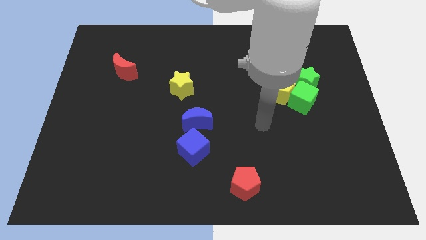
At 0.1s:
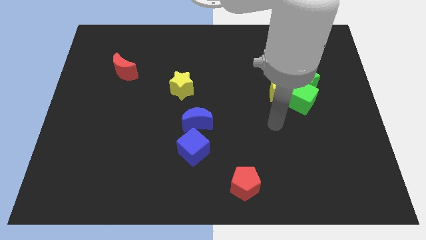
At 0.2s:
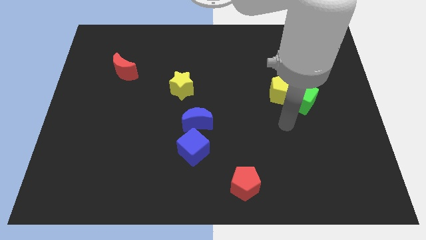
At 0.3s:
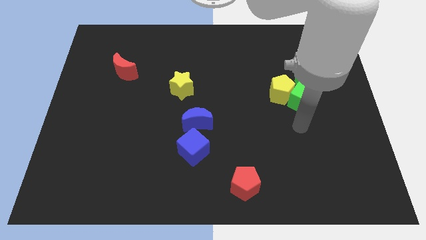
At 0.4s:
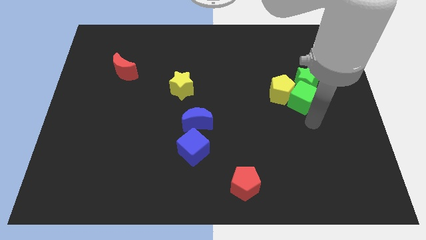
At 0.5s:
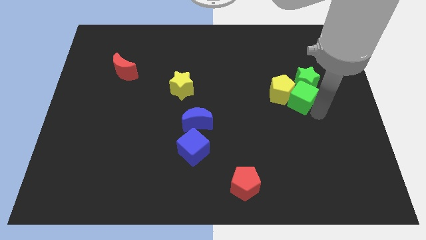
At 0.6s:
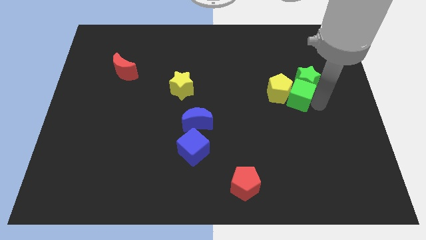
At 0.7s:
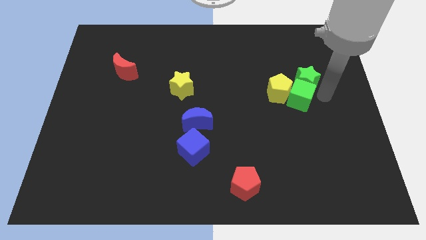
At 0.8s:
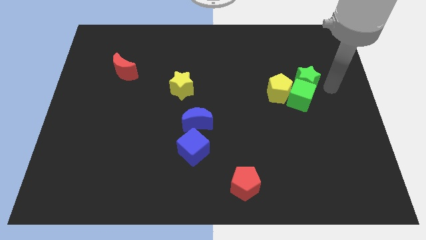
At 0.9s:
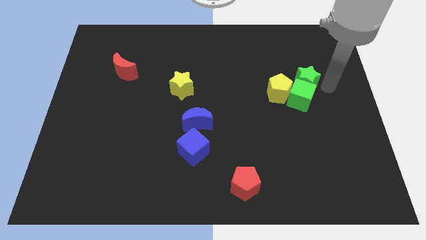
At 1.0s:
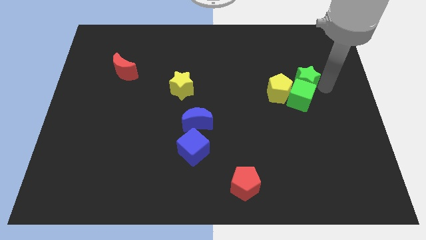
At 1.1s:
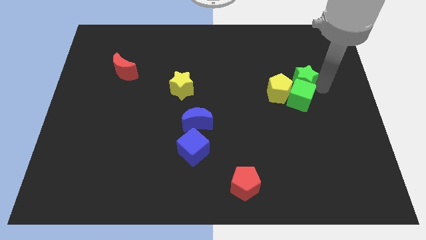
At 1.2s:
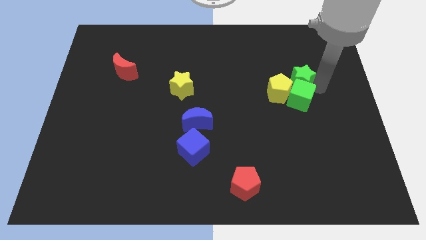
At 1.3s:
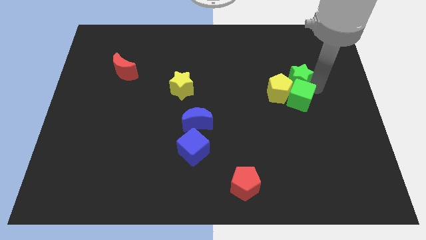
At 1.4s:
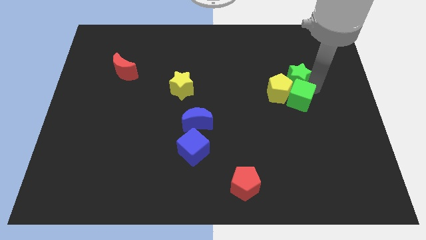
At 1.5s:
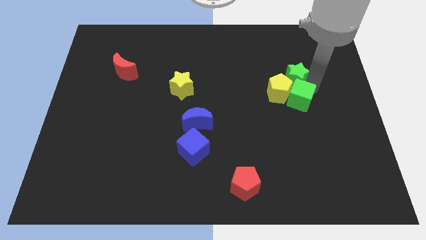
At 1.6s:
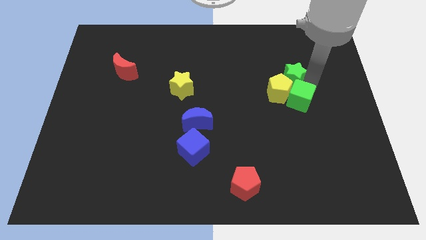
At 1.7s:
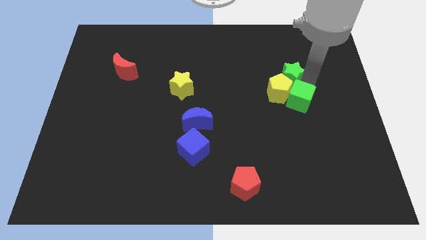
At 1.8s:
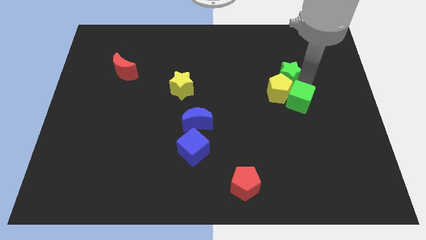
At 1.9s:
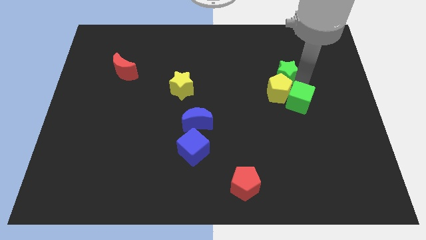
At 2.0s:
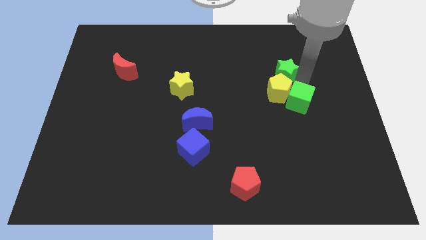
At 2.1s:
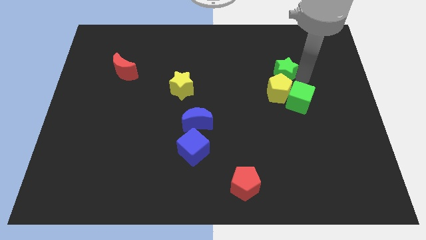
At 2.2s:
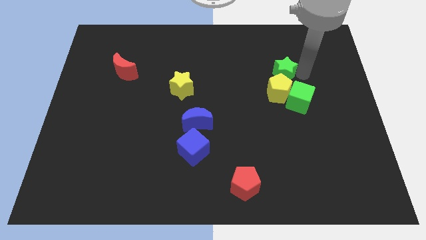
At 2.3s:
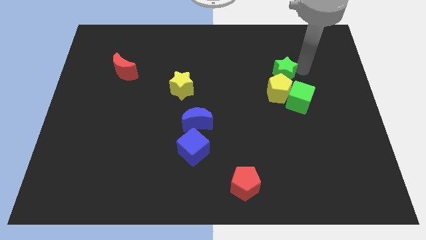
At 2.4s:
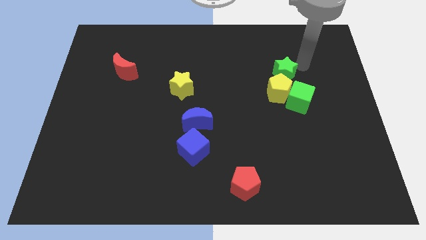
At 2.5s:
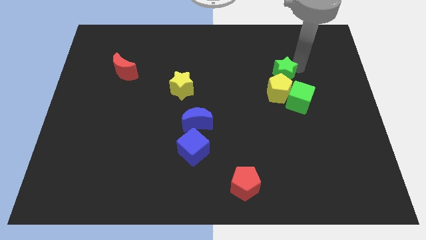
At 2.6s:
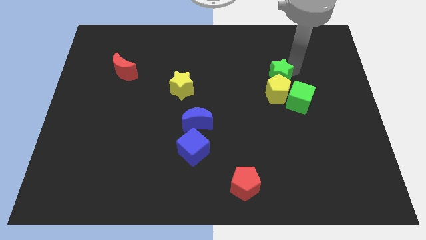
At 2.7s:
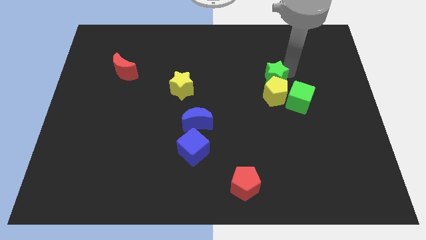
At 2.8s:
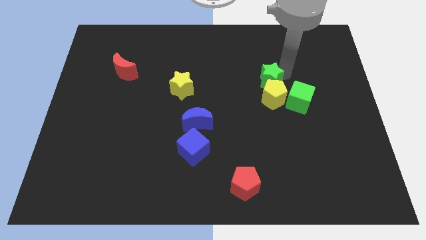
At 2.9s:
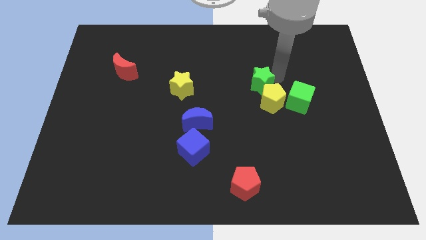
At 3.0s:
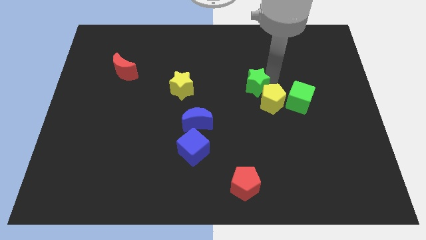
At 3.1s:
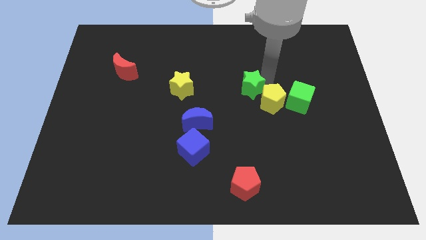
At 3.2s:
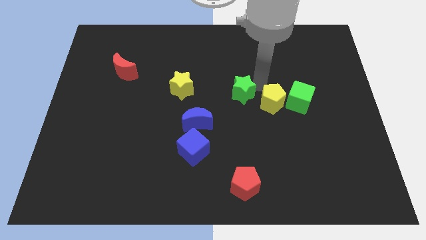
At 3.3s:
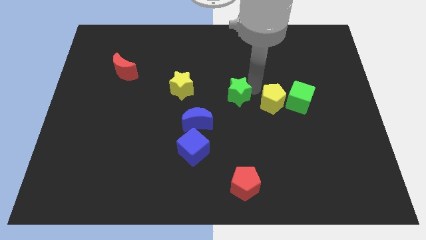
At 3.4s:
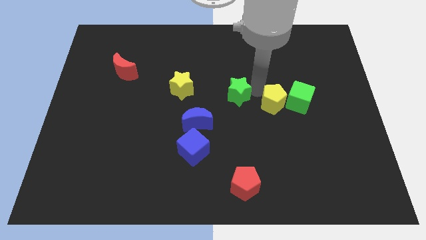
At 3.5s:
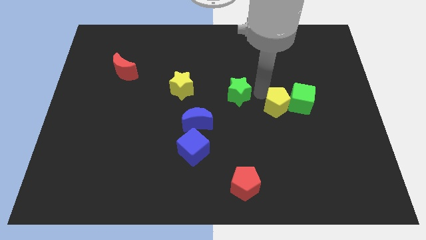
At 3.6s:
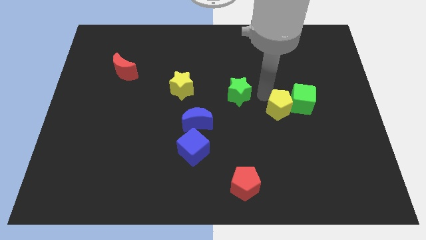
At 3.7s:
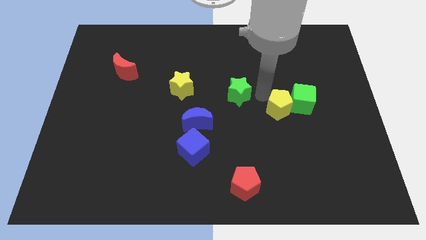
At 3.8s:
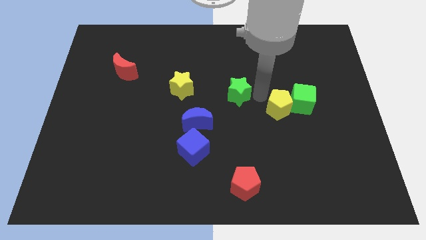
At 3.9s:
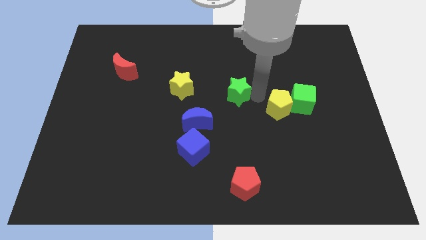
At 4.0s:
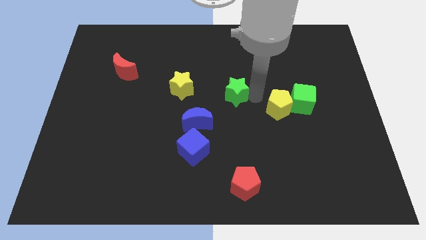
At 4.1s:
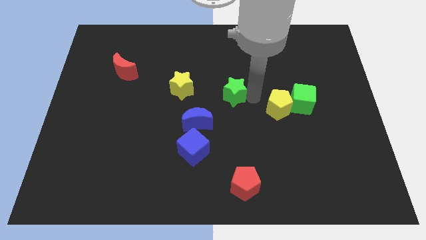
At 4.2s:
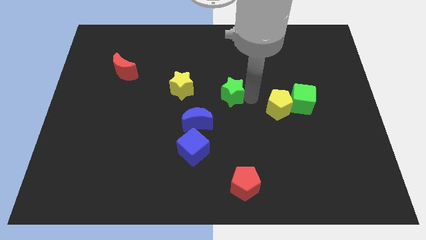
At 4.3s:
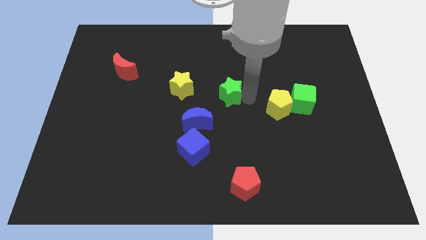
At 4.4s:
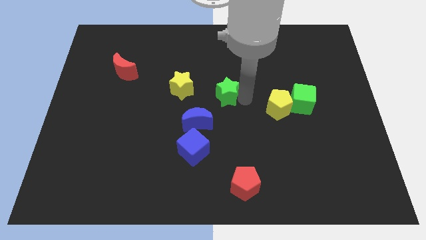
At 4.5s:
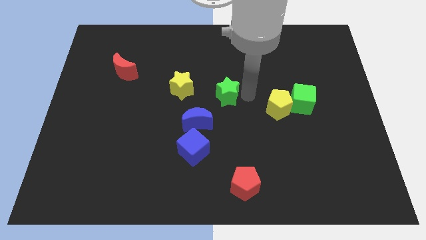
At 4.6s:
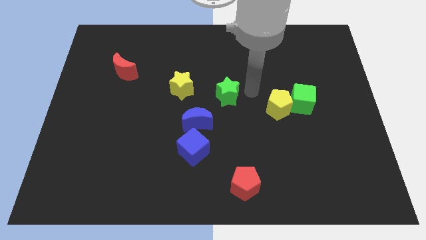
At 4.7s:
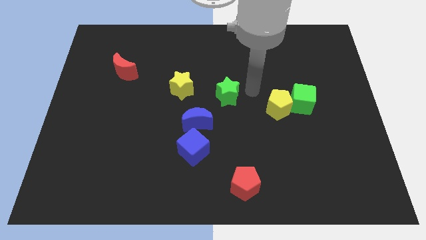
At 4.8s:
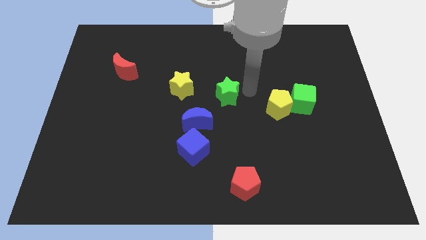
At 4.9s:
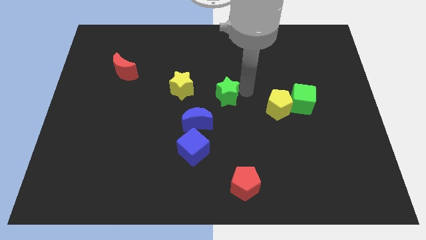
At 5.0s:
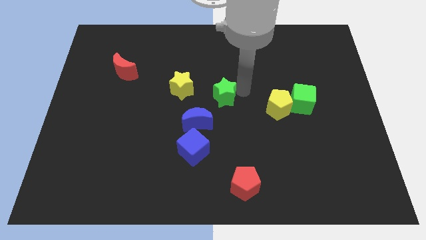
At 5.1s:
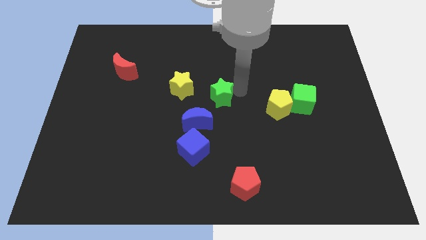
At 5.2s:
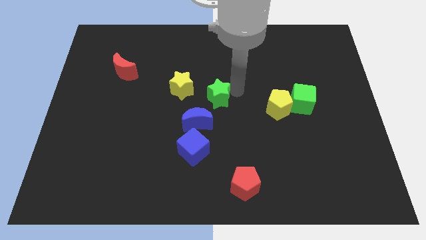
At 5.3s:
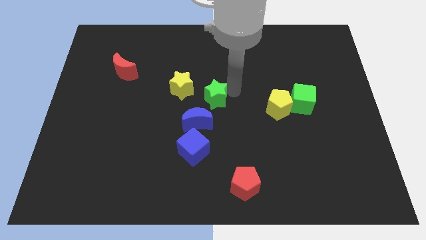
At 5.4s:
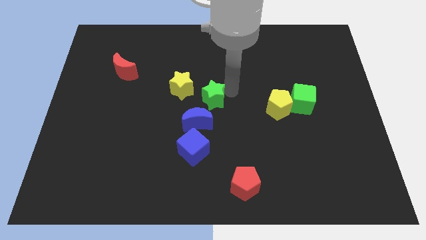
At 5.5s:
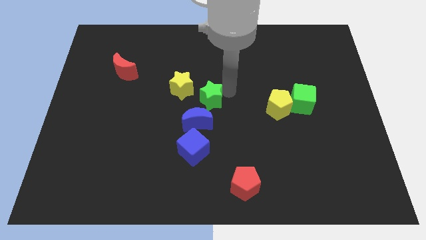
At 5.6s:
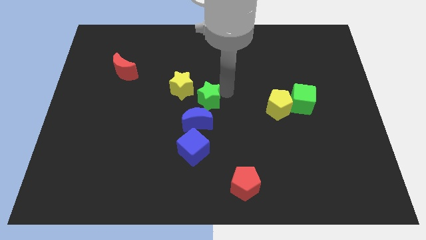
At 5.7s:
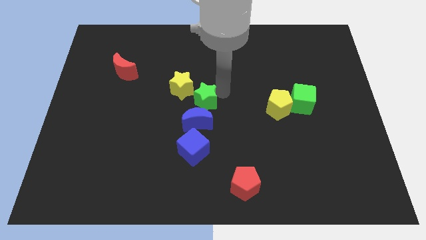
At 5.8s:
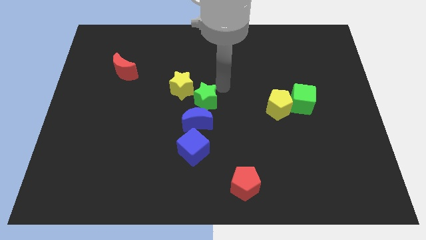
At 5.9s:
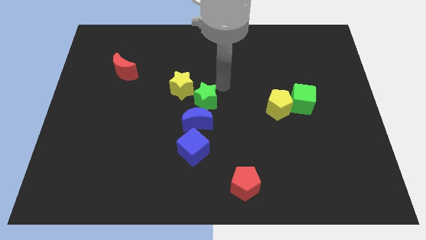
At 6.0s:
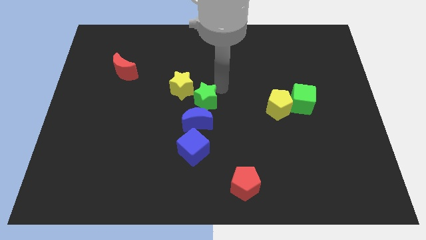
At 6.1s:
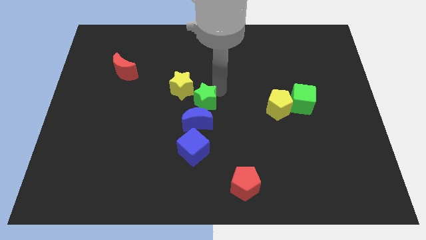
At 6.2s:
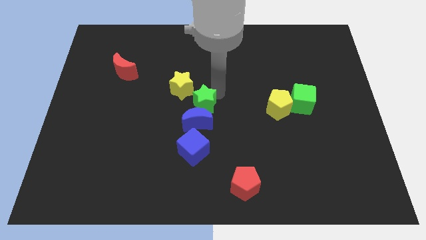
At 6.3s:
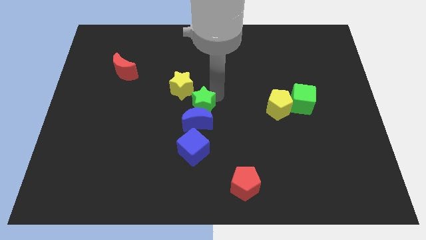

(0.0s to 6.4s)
push the green star to the bottom of the yellow star

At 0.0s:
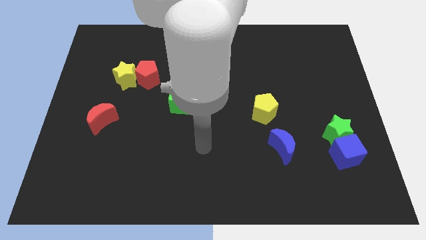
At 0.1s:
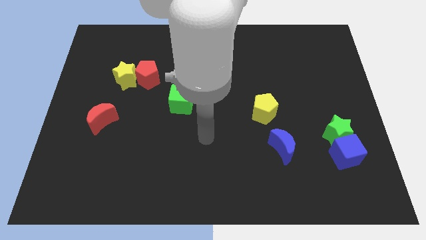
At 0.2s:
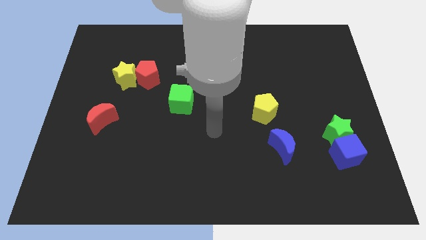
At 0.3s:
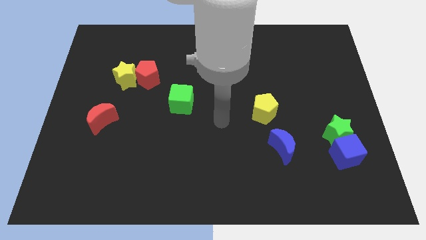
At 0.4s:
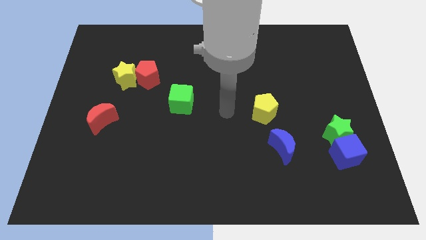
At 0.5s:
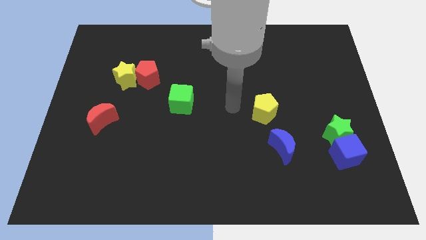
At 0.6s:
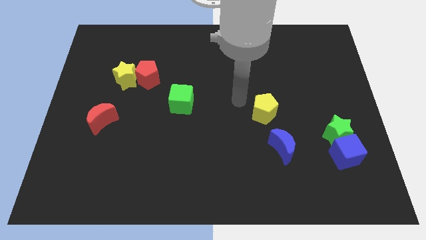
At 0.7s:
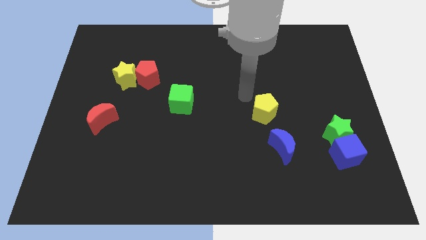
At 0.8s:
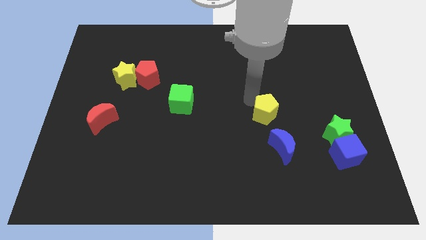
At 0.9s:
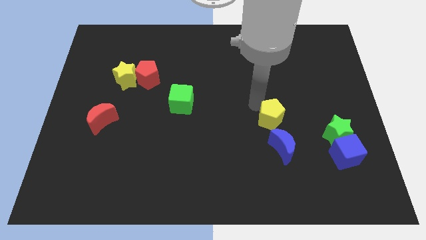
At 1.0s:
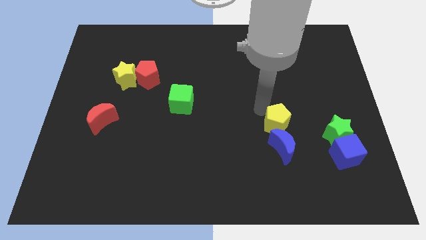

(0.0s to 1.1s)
push the yellow pentagon to the left side of the green star
